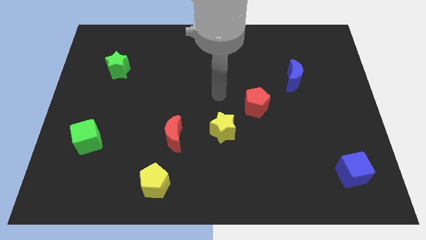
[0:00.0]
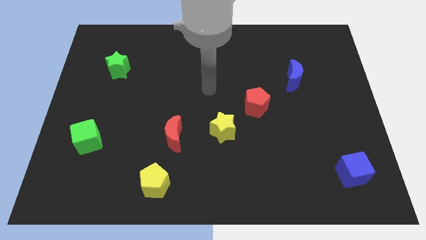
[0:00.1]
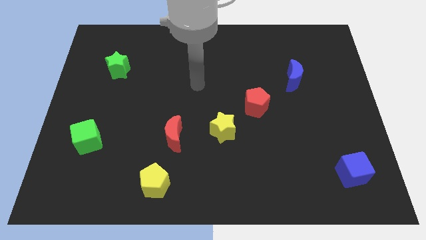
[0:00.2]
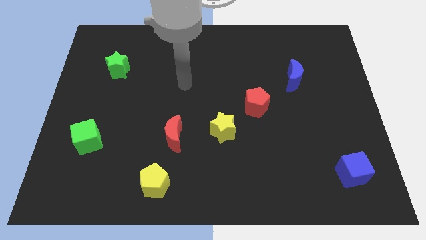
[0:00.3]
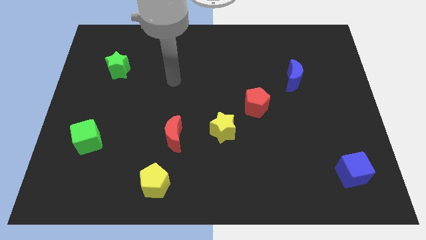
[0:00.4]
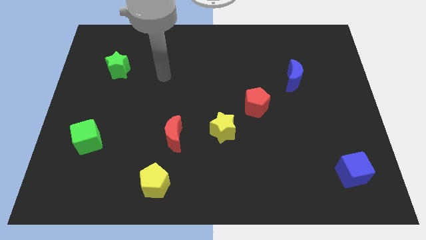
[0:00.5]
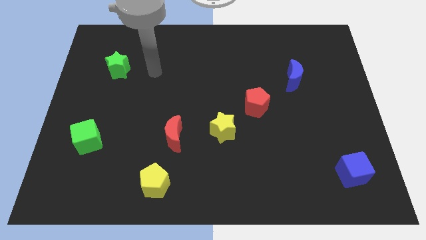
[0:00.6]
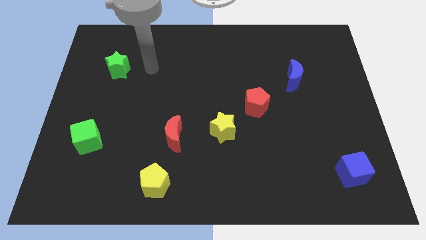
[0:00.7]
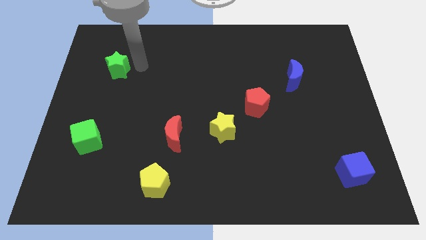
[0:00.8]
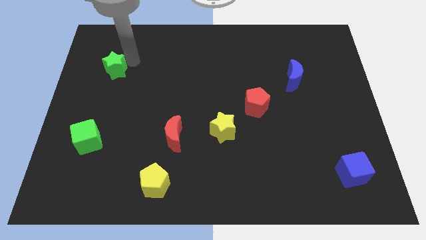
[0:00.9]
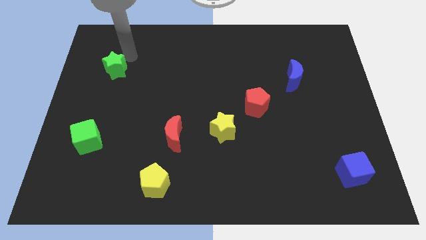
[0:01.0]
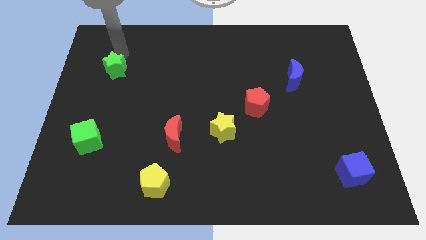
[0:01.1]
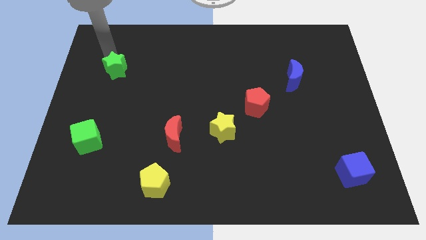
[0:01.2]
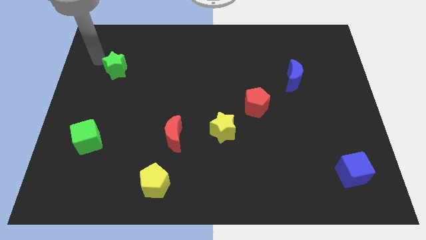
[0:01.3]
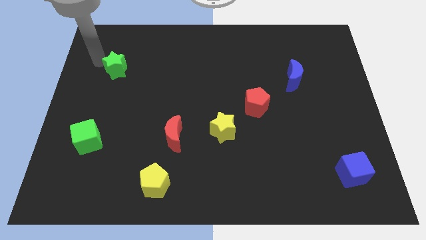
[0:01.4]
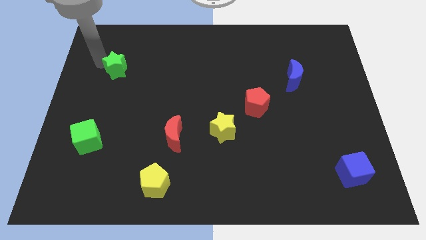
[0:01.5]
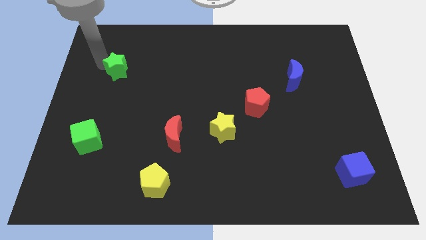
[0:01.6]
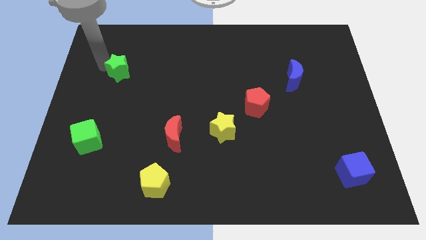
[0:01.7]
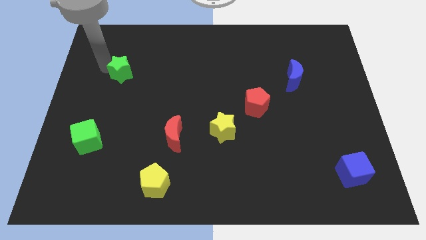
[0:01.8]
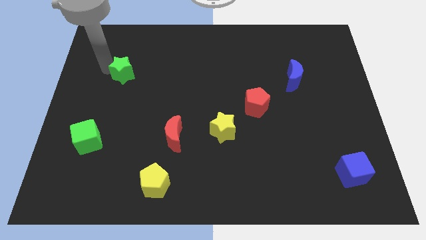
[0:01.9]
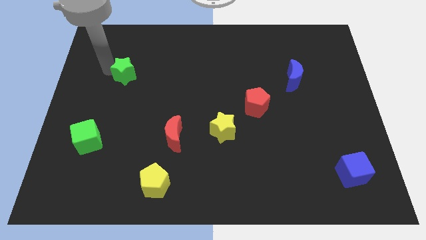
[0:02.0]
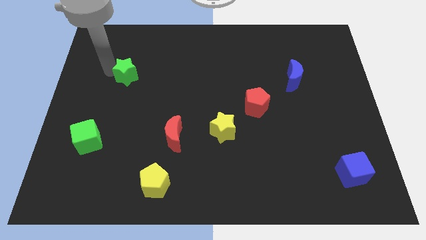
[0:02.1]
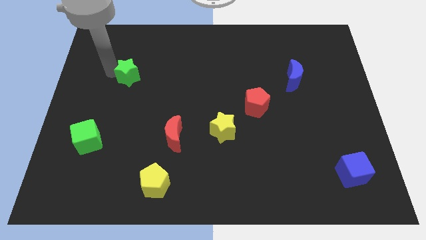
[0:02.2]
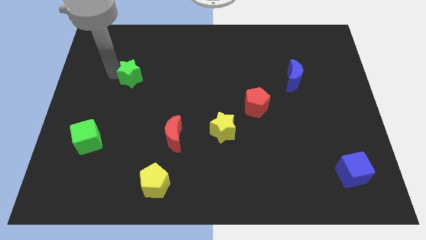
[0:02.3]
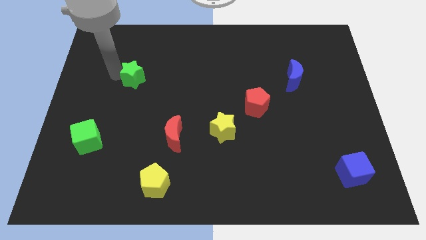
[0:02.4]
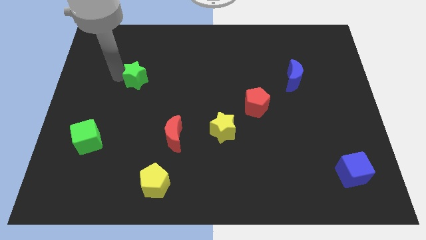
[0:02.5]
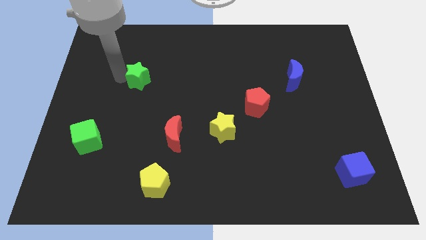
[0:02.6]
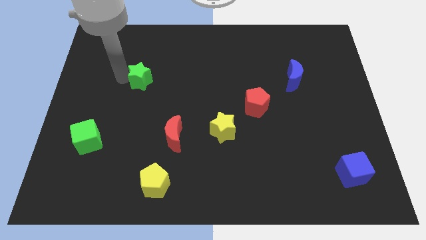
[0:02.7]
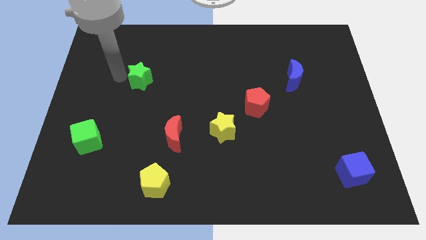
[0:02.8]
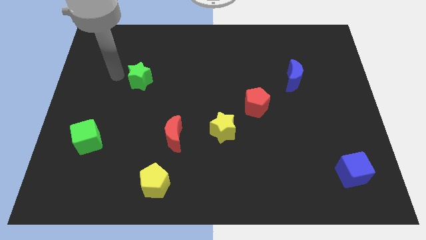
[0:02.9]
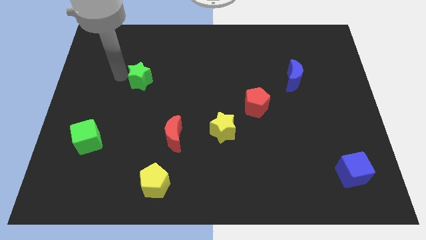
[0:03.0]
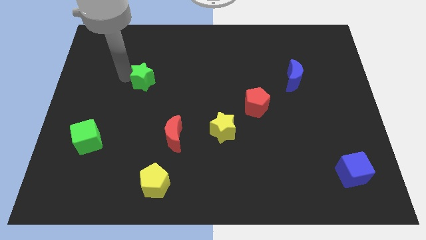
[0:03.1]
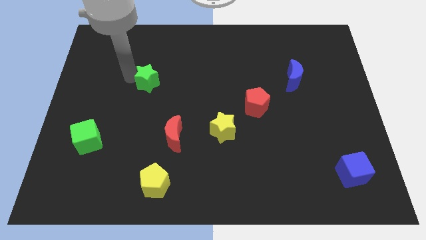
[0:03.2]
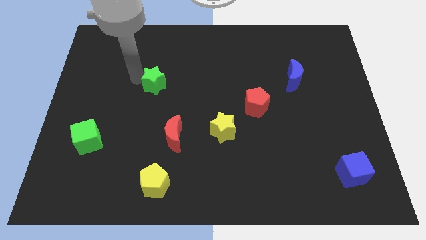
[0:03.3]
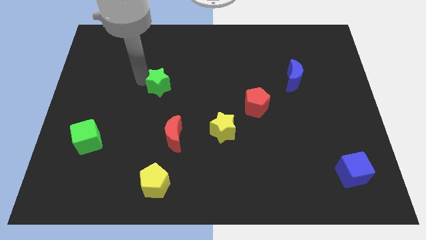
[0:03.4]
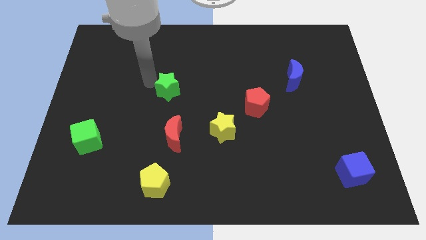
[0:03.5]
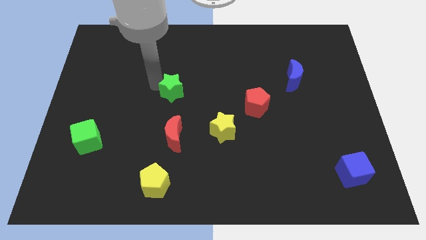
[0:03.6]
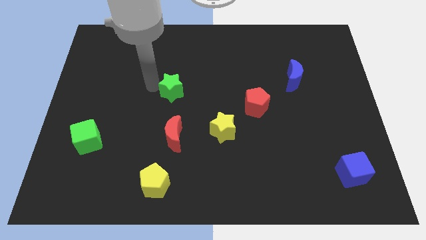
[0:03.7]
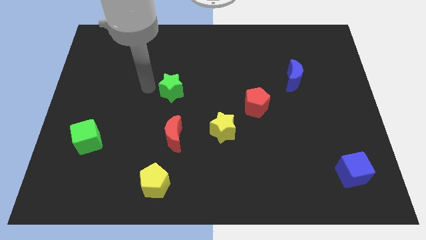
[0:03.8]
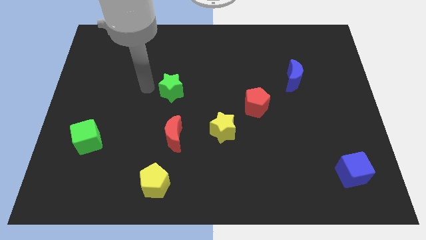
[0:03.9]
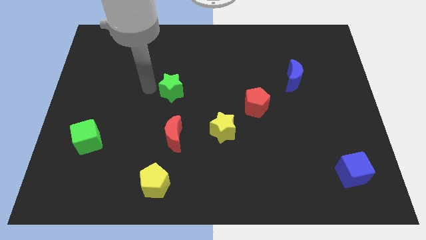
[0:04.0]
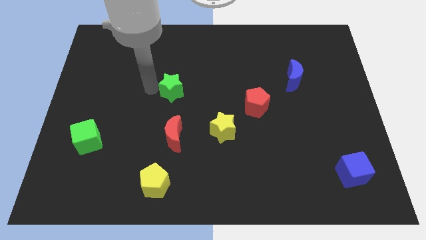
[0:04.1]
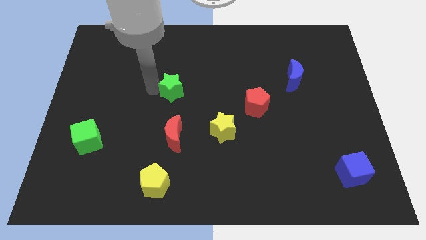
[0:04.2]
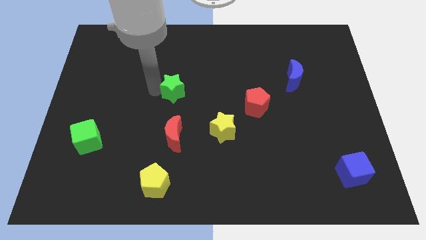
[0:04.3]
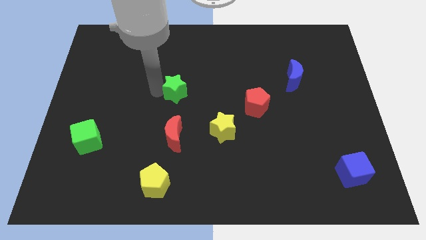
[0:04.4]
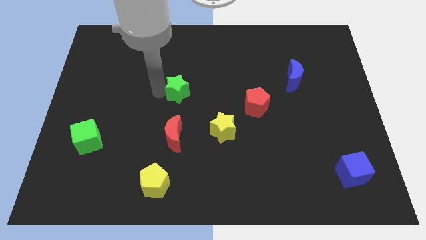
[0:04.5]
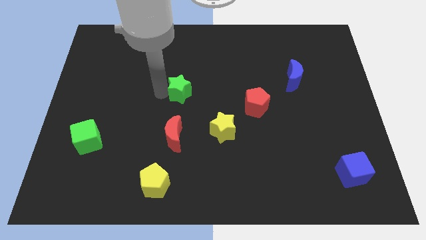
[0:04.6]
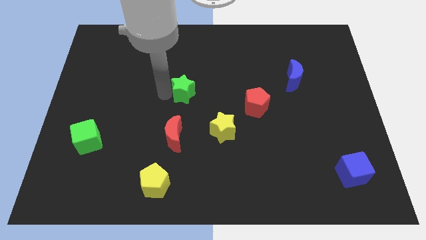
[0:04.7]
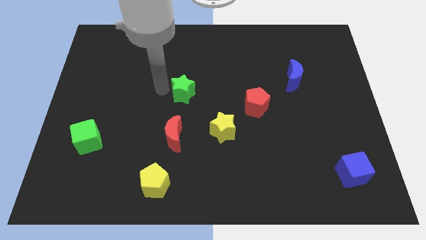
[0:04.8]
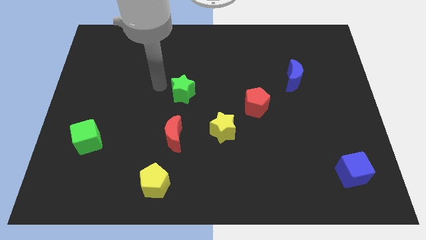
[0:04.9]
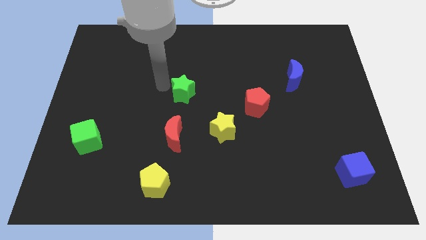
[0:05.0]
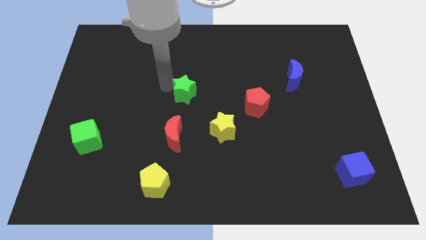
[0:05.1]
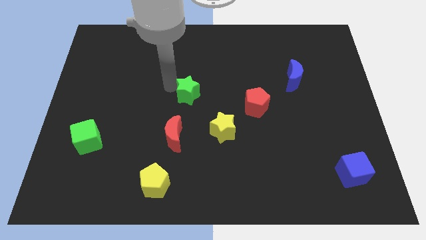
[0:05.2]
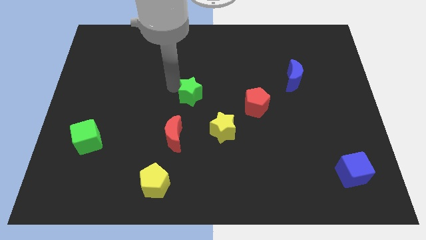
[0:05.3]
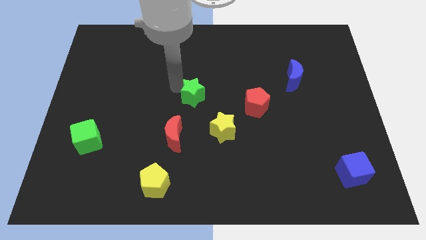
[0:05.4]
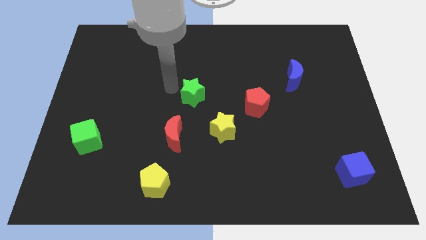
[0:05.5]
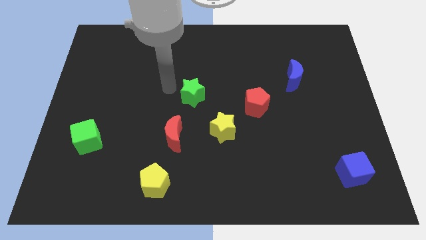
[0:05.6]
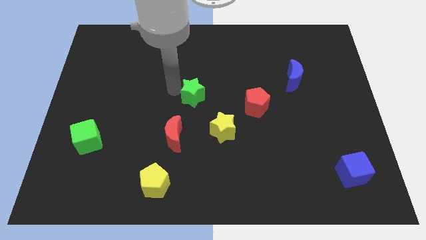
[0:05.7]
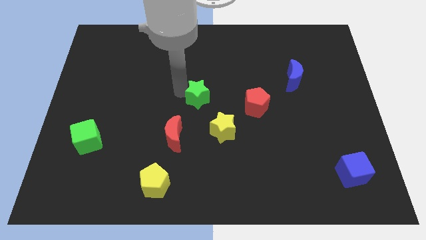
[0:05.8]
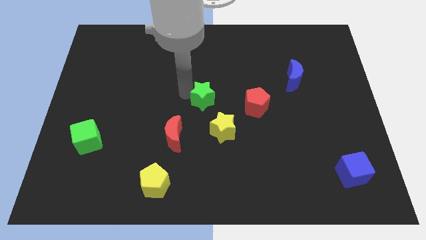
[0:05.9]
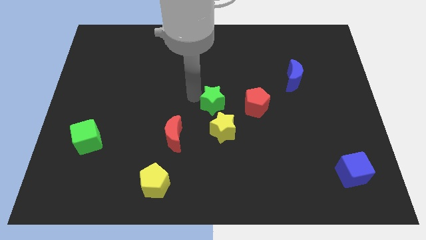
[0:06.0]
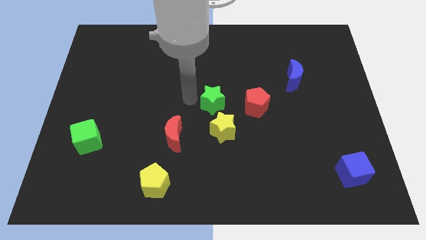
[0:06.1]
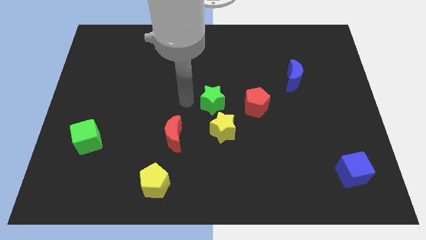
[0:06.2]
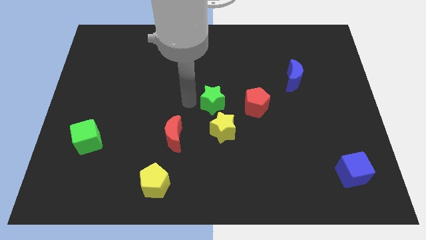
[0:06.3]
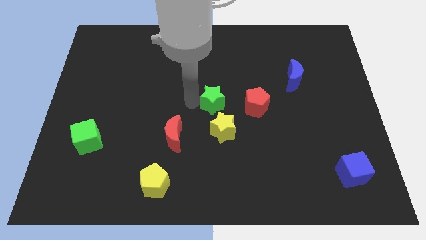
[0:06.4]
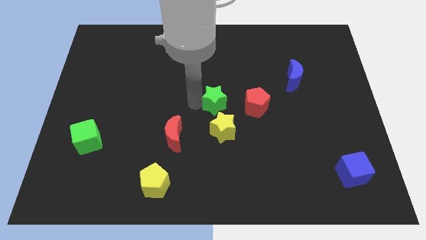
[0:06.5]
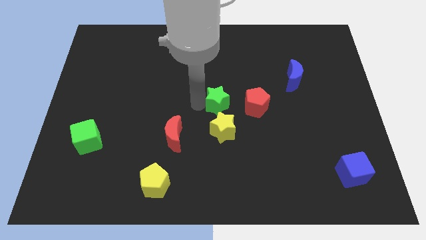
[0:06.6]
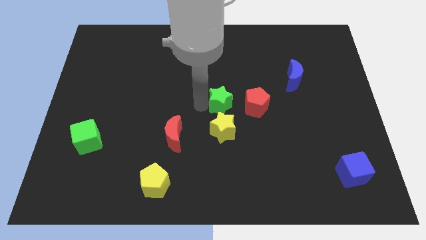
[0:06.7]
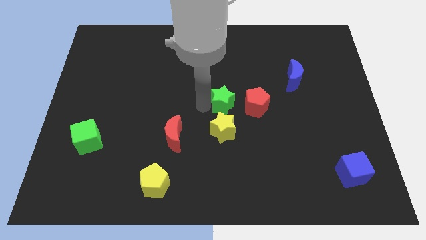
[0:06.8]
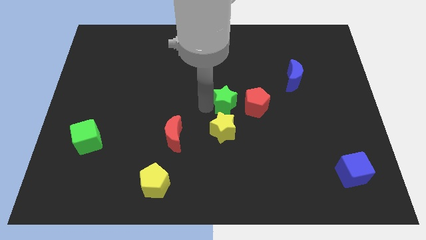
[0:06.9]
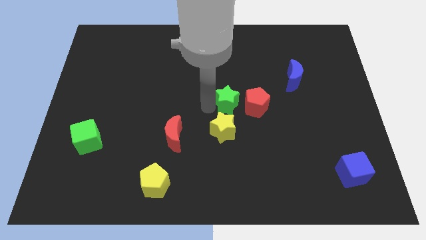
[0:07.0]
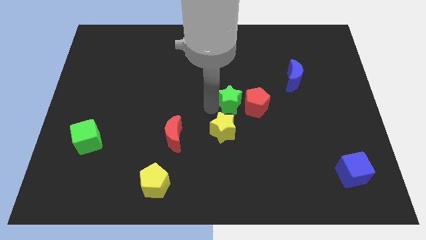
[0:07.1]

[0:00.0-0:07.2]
push the green star next to the red pentagon

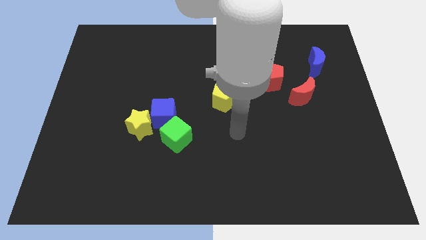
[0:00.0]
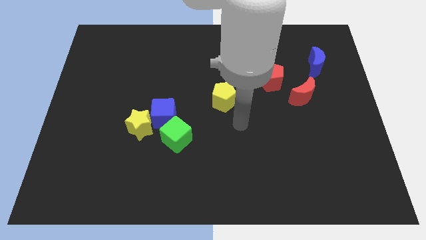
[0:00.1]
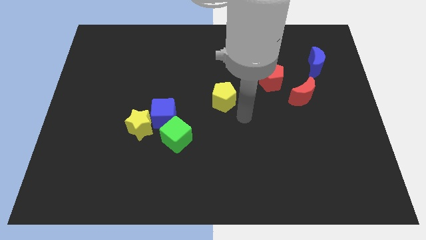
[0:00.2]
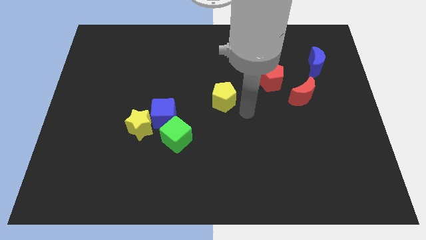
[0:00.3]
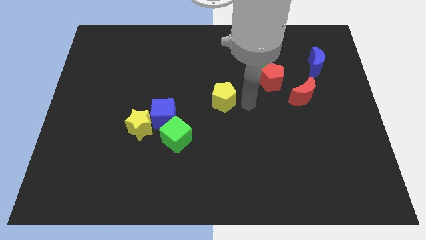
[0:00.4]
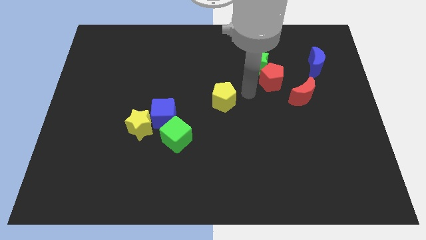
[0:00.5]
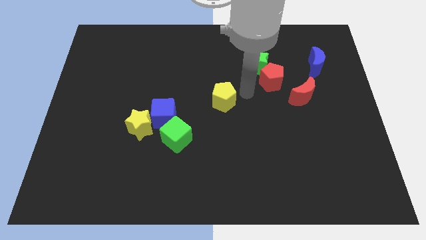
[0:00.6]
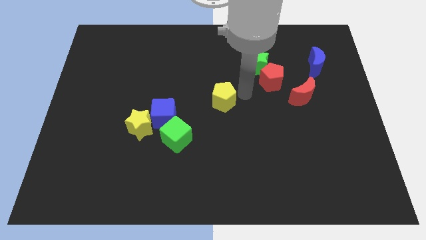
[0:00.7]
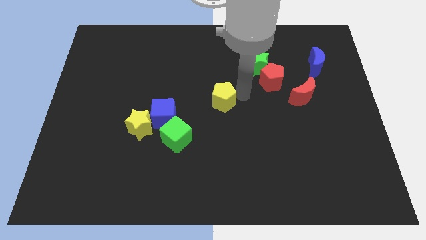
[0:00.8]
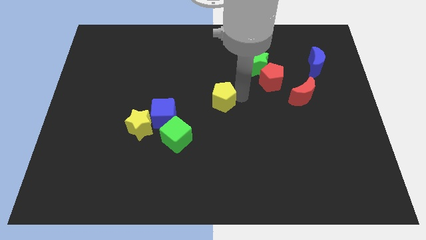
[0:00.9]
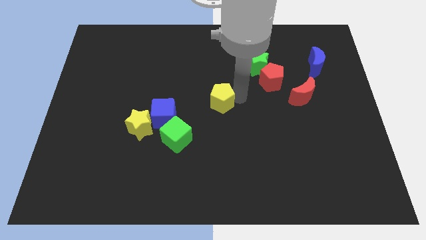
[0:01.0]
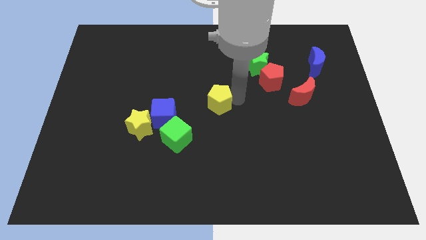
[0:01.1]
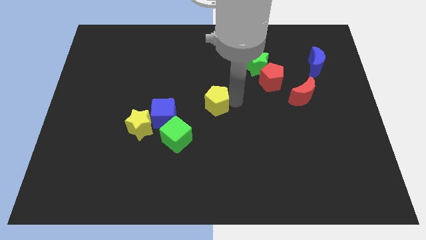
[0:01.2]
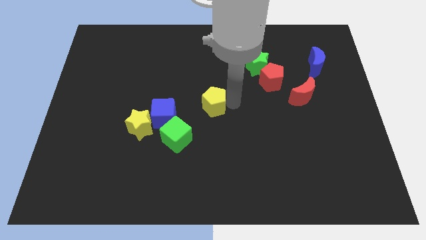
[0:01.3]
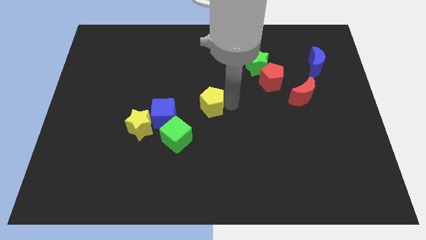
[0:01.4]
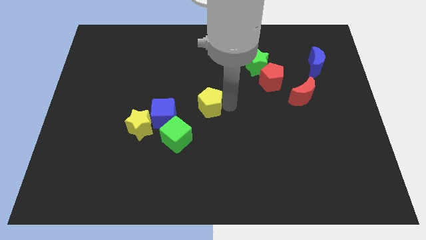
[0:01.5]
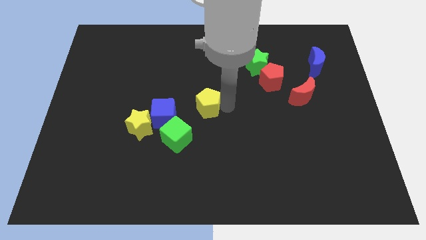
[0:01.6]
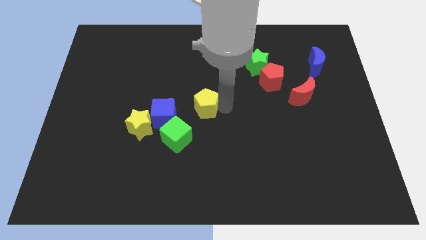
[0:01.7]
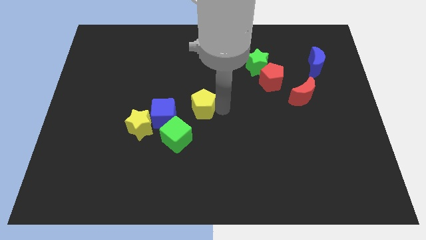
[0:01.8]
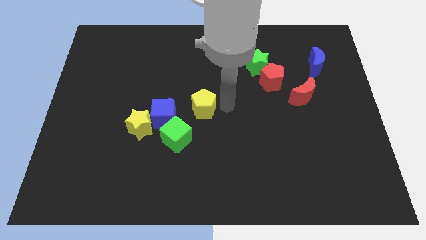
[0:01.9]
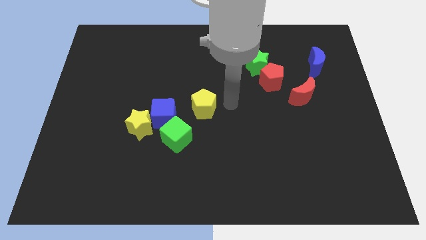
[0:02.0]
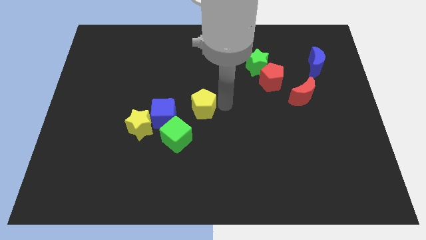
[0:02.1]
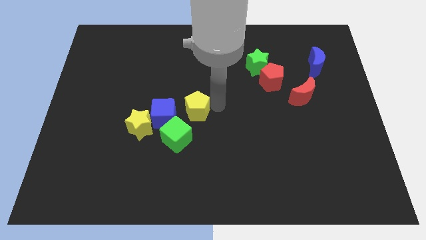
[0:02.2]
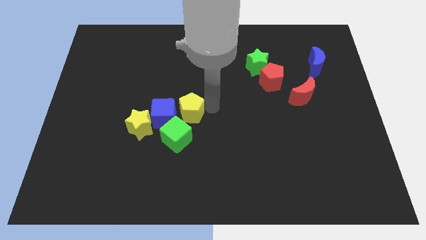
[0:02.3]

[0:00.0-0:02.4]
push the yellow pentagon towards the blue cube
